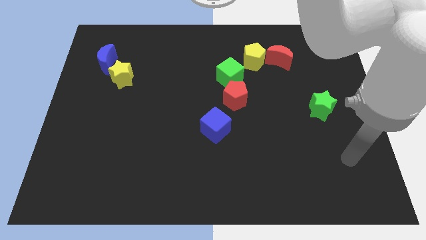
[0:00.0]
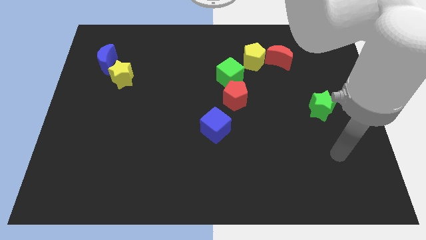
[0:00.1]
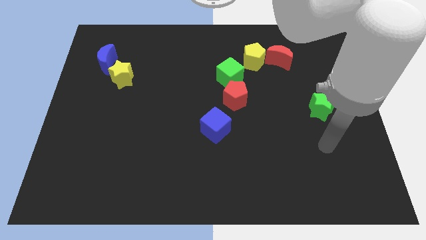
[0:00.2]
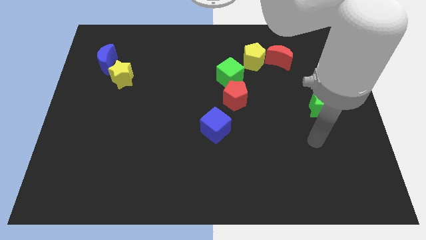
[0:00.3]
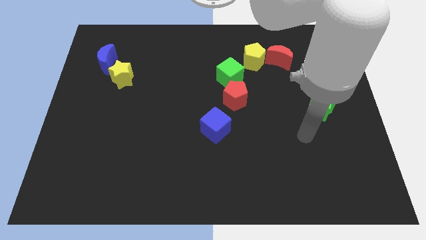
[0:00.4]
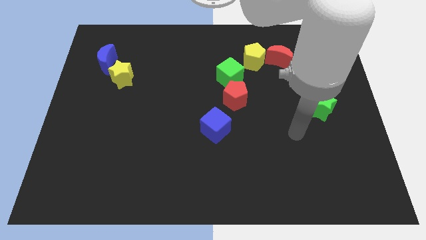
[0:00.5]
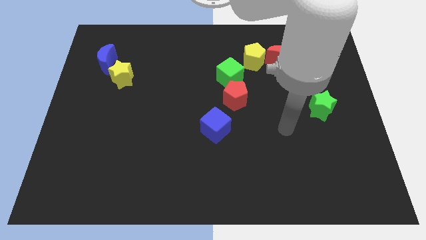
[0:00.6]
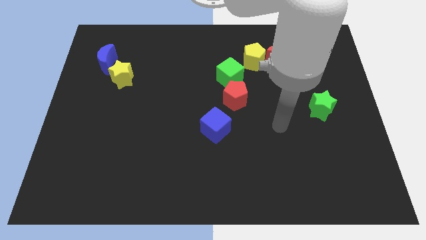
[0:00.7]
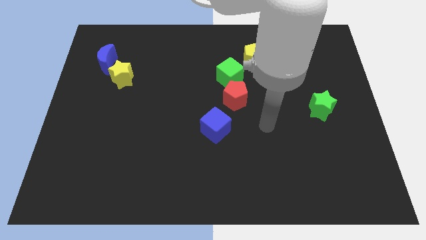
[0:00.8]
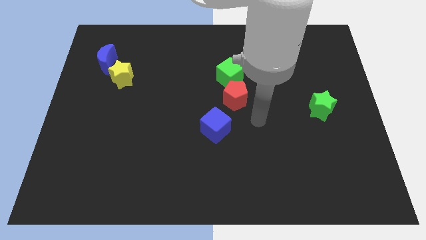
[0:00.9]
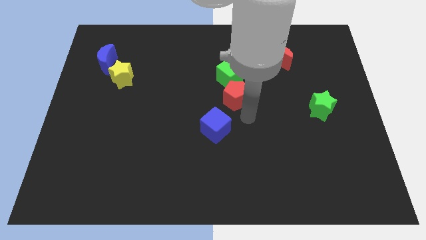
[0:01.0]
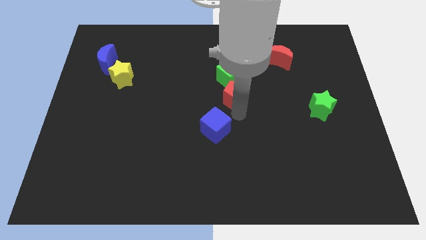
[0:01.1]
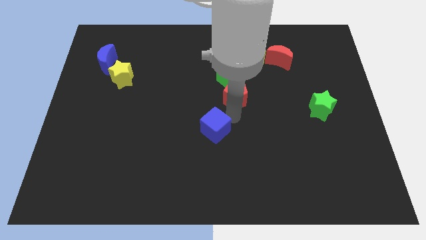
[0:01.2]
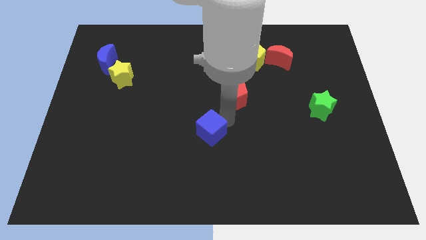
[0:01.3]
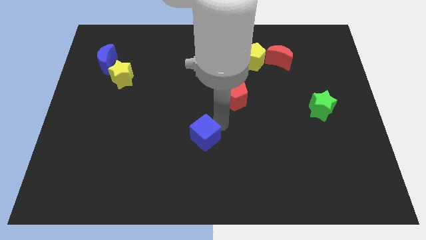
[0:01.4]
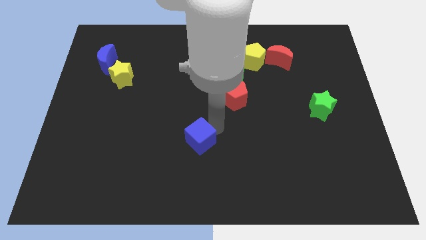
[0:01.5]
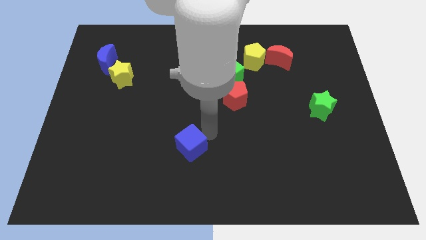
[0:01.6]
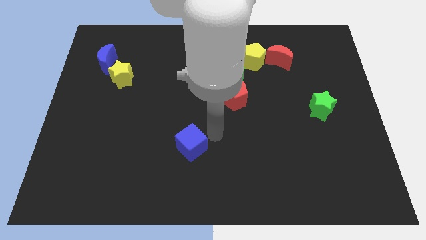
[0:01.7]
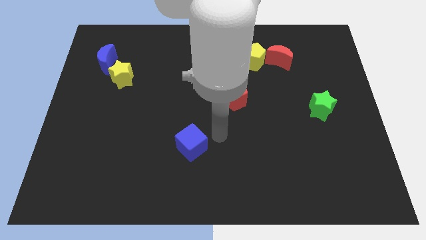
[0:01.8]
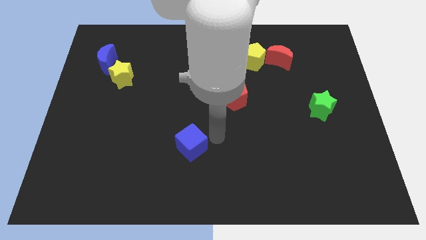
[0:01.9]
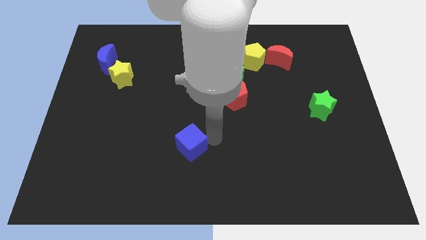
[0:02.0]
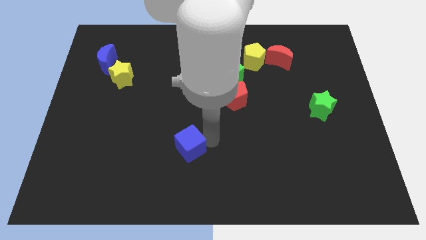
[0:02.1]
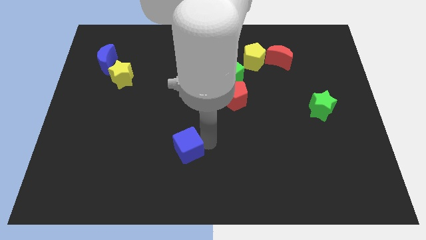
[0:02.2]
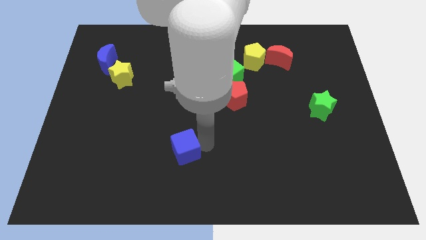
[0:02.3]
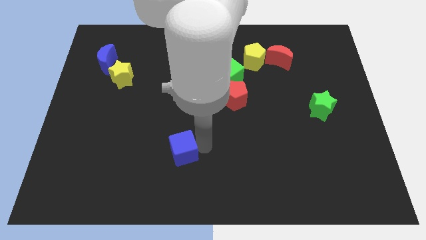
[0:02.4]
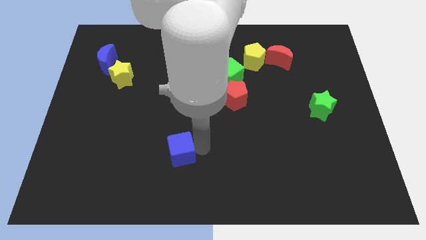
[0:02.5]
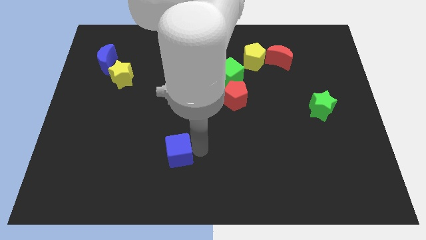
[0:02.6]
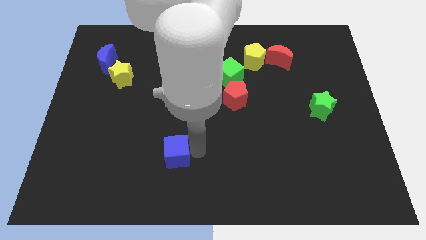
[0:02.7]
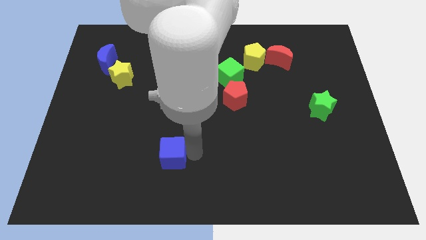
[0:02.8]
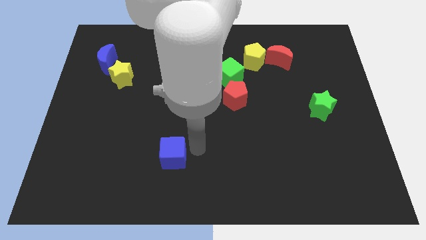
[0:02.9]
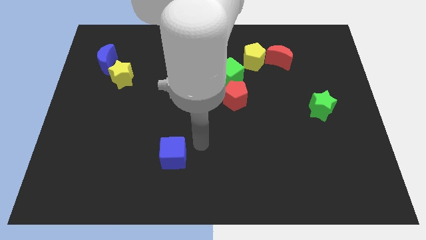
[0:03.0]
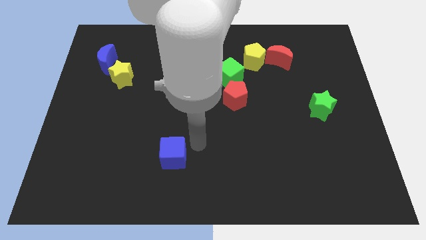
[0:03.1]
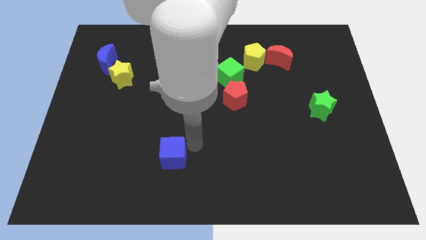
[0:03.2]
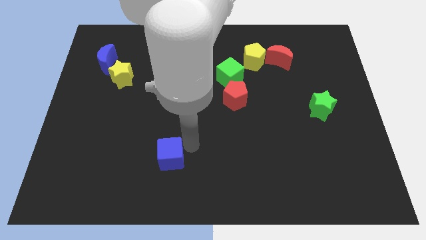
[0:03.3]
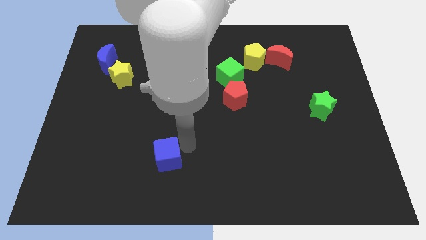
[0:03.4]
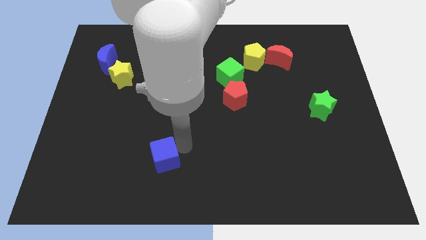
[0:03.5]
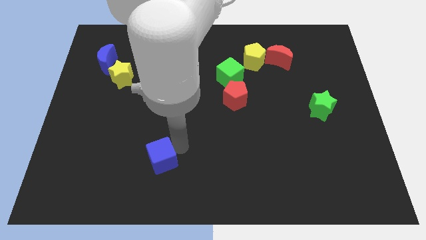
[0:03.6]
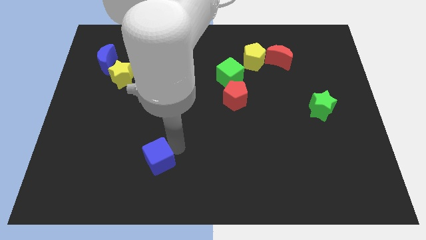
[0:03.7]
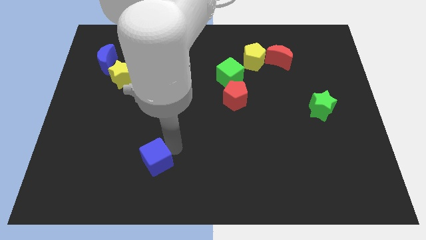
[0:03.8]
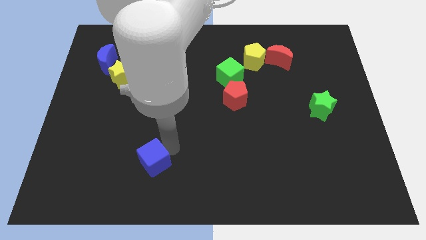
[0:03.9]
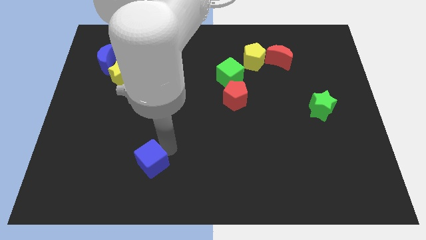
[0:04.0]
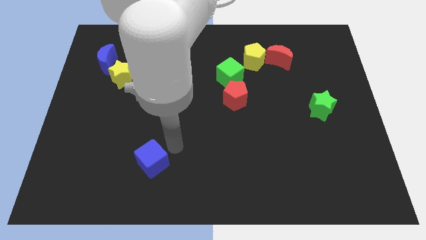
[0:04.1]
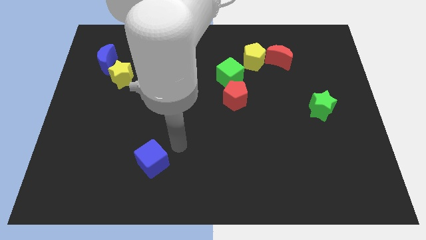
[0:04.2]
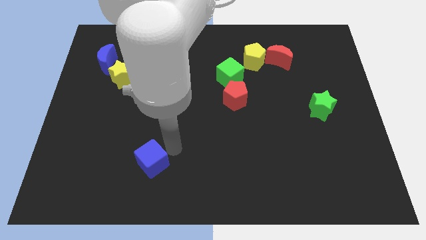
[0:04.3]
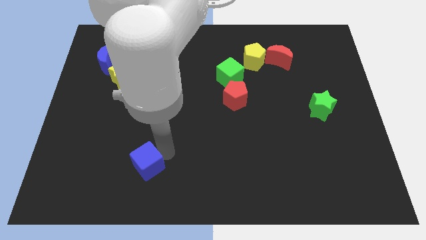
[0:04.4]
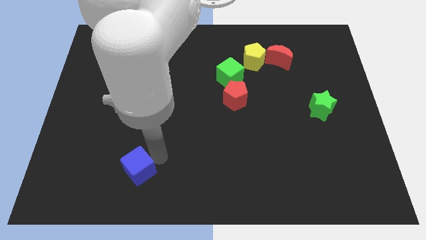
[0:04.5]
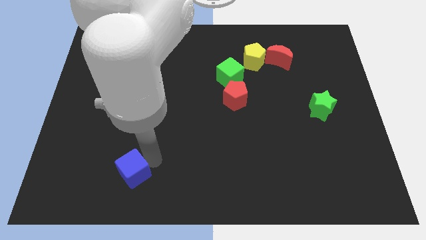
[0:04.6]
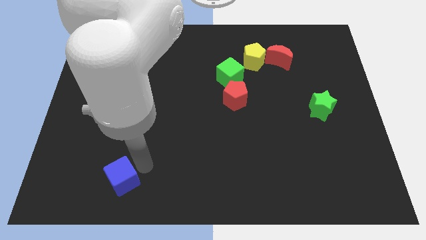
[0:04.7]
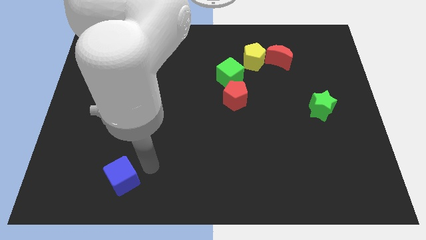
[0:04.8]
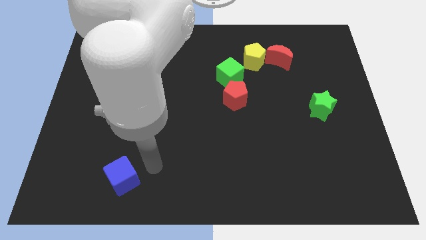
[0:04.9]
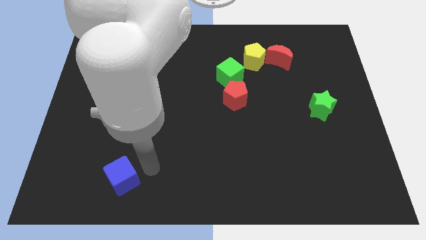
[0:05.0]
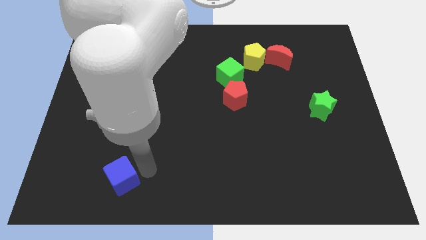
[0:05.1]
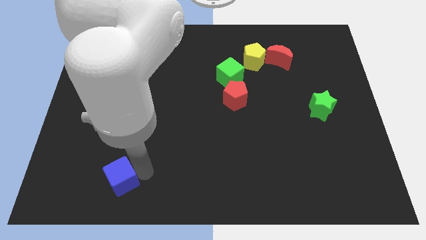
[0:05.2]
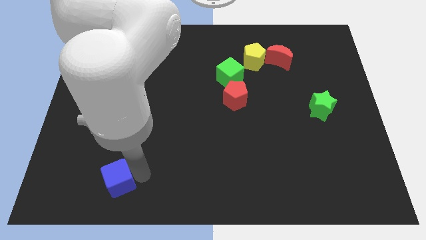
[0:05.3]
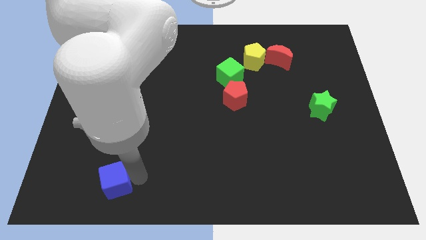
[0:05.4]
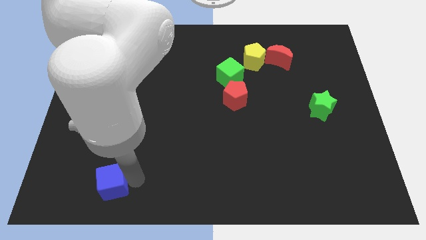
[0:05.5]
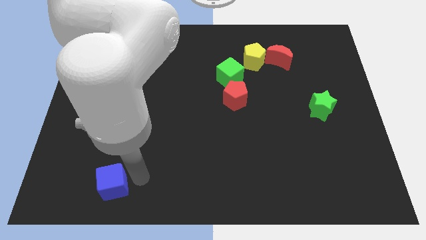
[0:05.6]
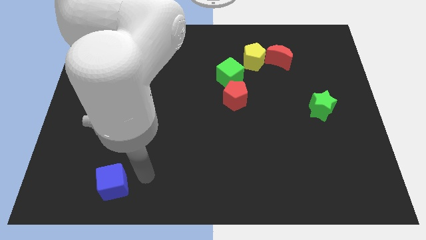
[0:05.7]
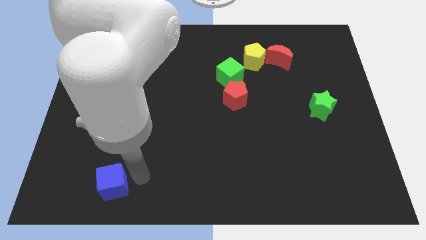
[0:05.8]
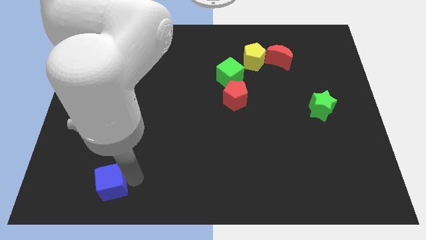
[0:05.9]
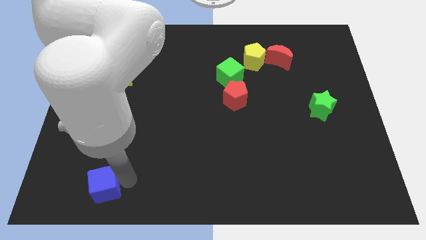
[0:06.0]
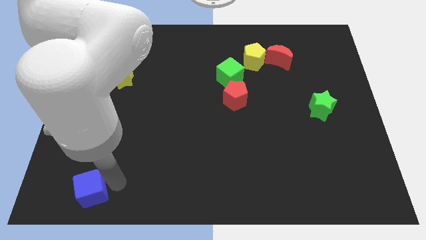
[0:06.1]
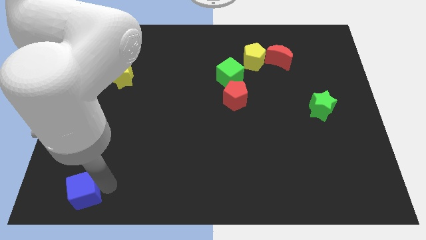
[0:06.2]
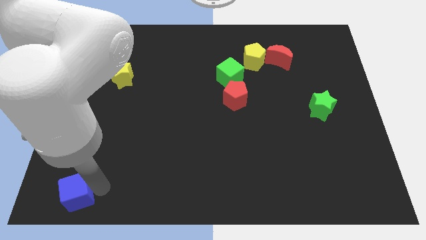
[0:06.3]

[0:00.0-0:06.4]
move the blue cube to the lower left corner

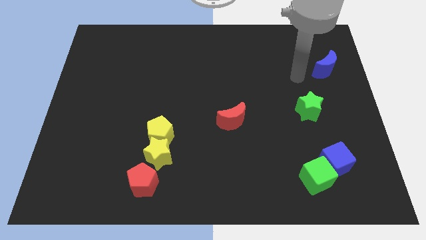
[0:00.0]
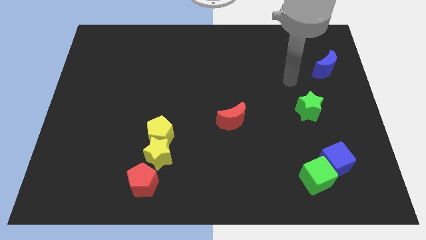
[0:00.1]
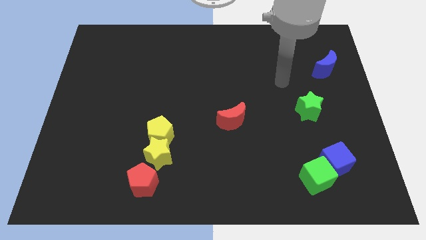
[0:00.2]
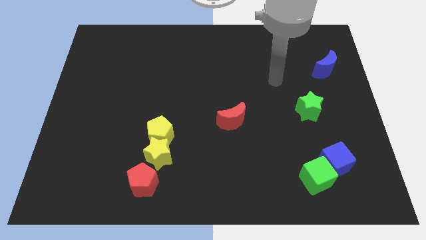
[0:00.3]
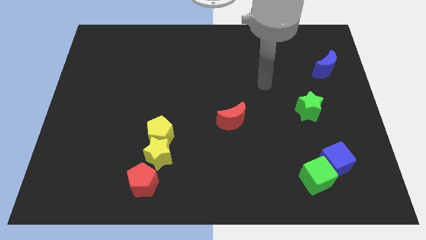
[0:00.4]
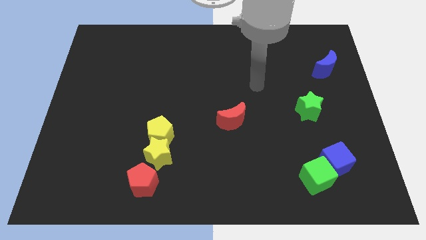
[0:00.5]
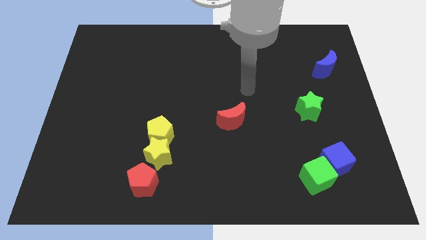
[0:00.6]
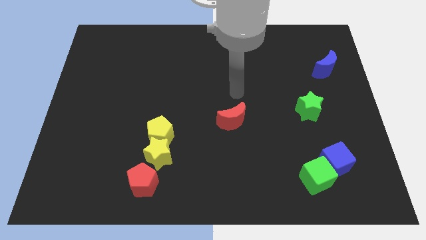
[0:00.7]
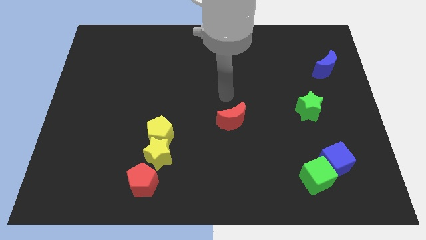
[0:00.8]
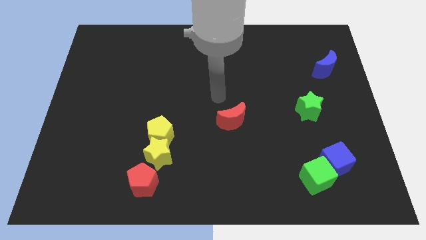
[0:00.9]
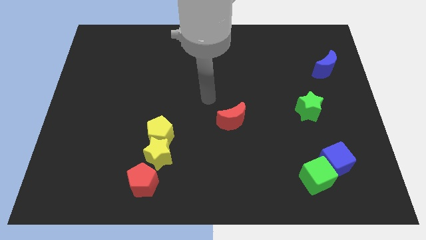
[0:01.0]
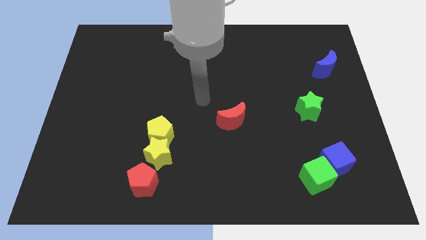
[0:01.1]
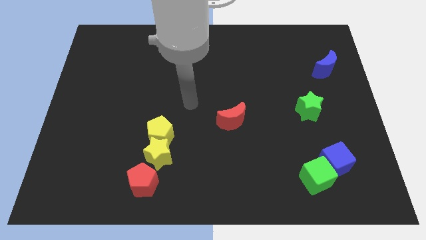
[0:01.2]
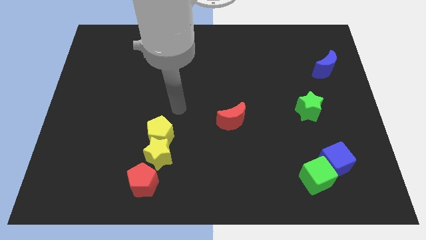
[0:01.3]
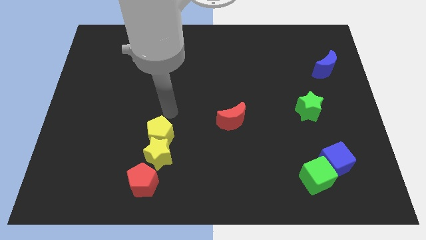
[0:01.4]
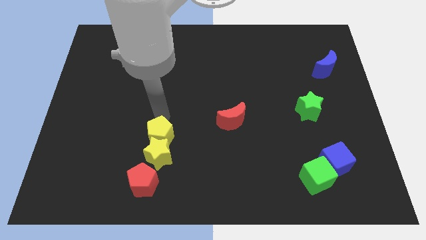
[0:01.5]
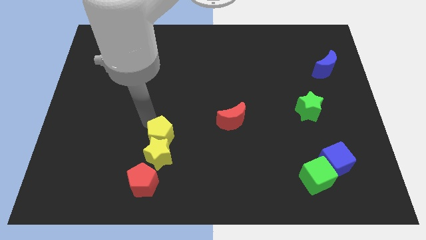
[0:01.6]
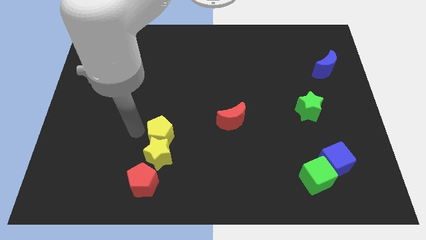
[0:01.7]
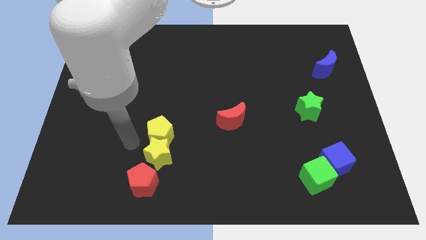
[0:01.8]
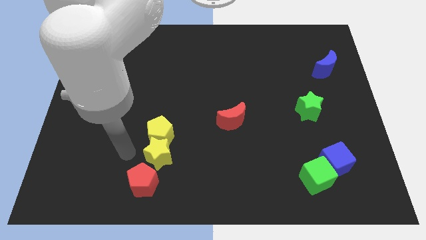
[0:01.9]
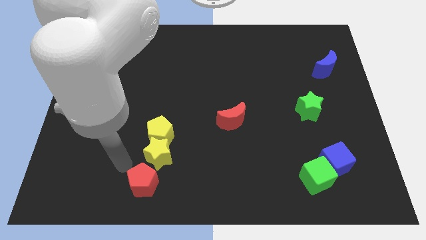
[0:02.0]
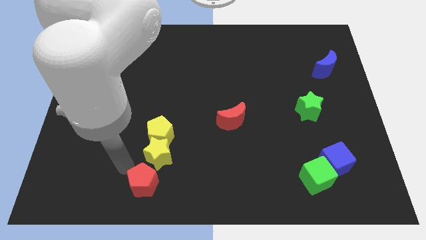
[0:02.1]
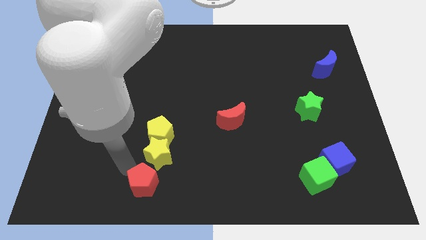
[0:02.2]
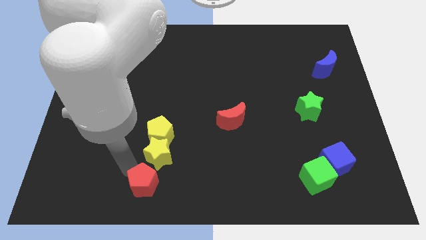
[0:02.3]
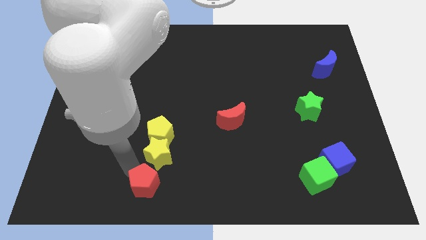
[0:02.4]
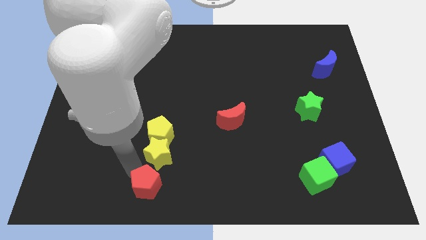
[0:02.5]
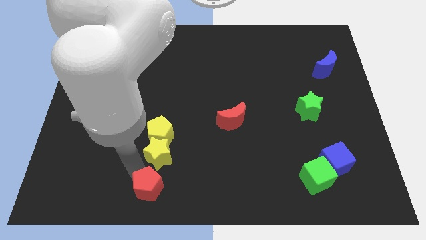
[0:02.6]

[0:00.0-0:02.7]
push the red pentagon to the bottom
